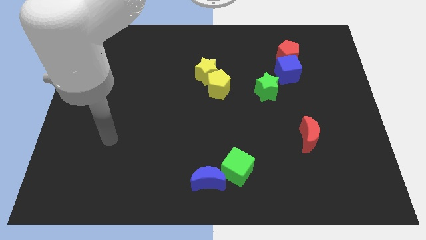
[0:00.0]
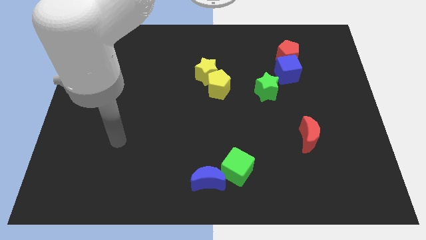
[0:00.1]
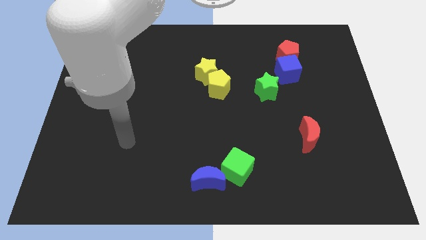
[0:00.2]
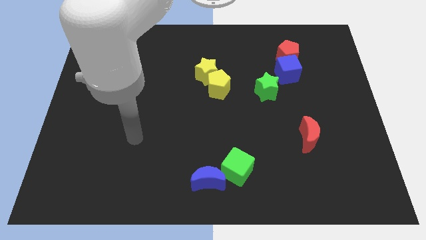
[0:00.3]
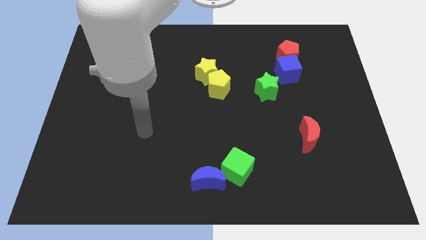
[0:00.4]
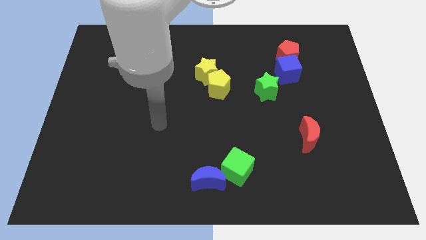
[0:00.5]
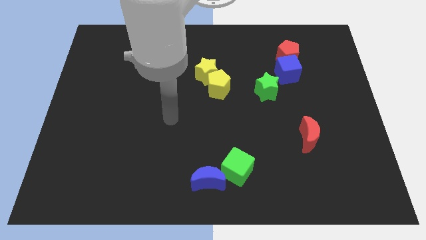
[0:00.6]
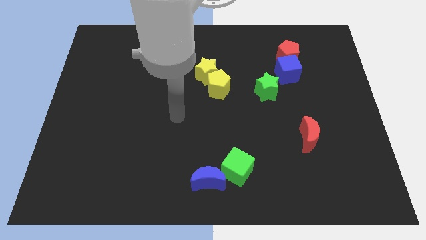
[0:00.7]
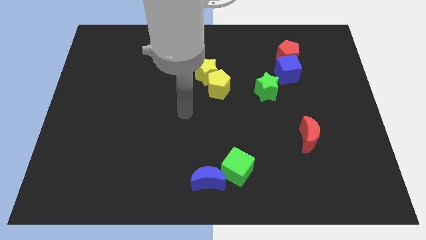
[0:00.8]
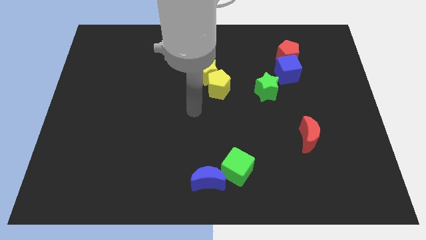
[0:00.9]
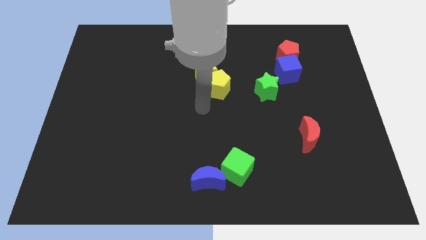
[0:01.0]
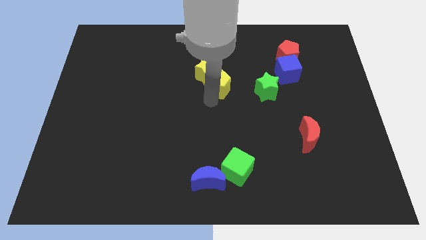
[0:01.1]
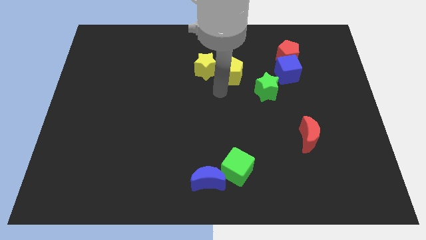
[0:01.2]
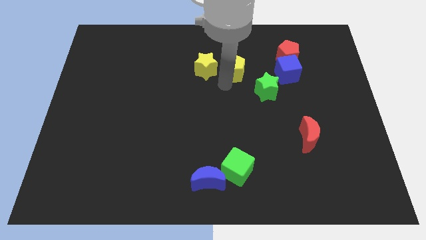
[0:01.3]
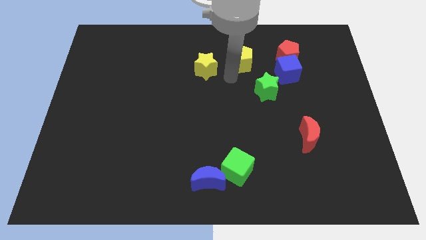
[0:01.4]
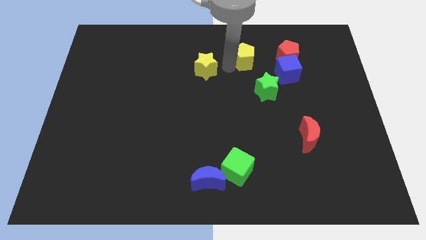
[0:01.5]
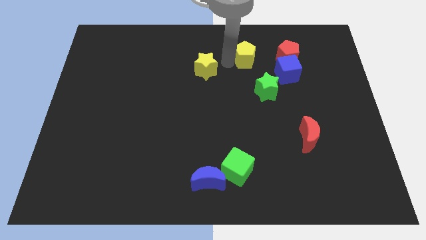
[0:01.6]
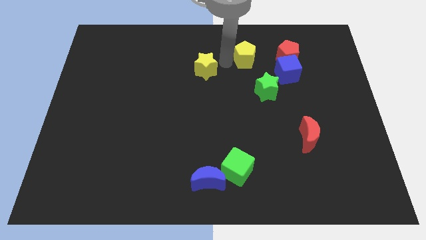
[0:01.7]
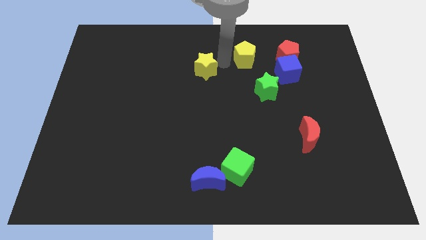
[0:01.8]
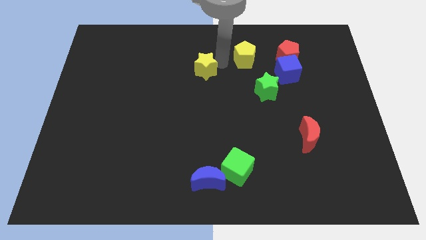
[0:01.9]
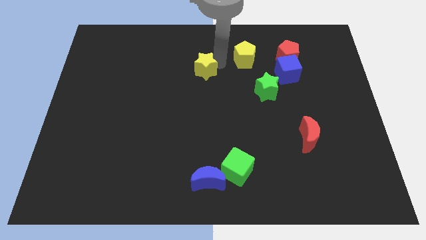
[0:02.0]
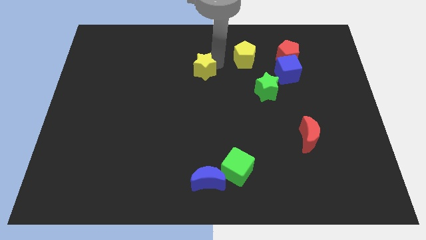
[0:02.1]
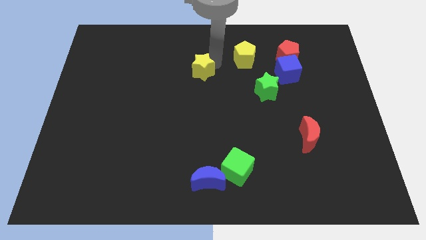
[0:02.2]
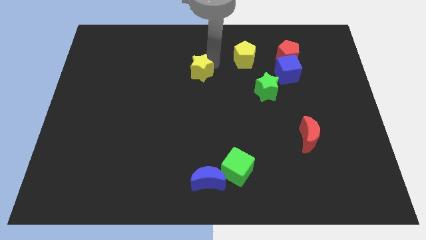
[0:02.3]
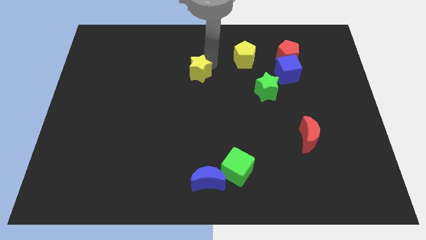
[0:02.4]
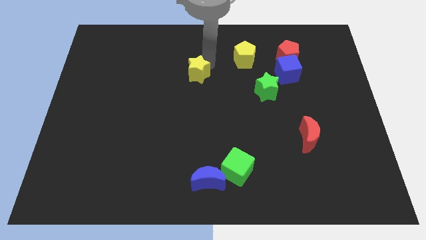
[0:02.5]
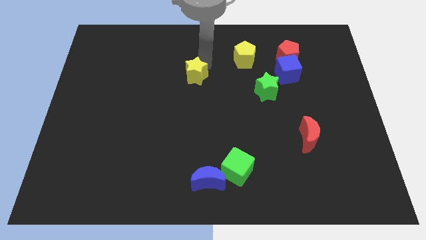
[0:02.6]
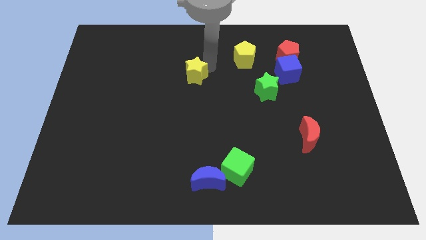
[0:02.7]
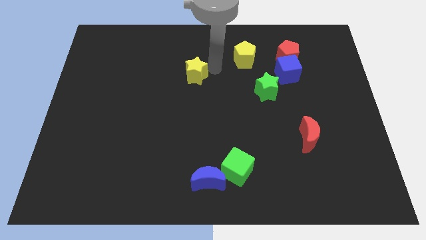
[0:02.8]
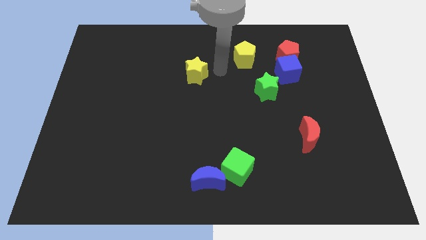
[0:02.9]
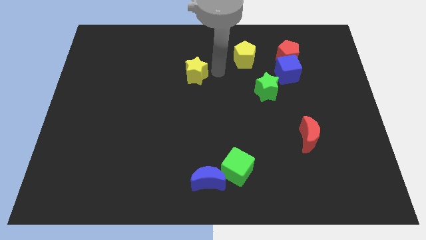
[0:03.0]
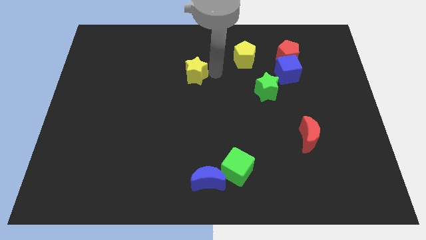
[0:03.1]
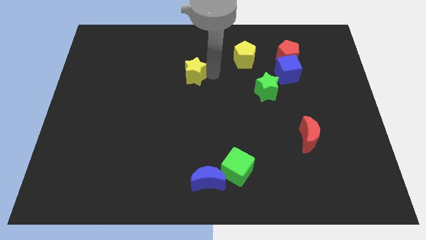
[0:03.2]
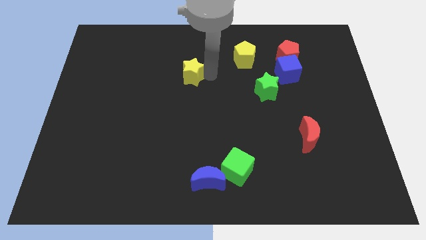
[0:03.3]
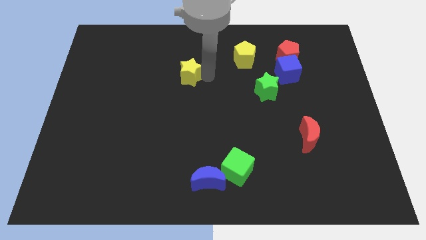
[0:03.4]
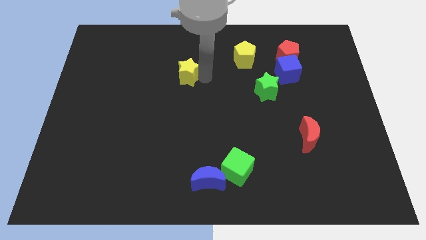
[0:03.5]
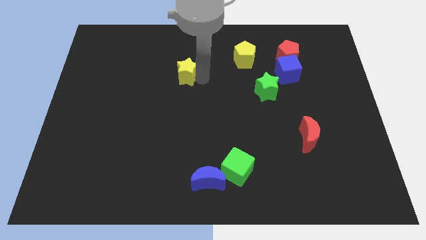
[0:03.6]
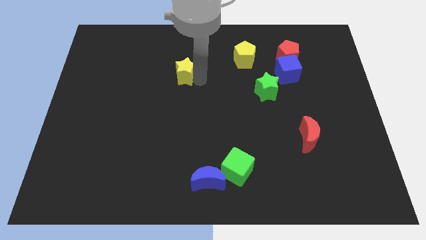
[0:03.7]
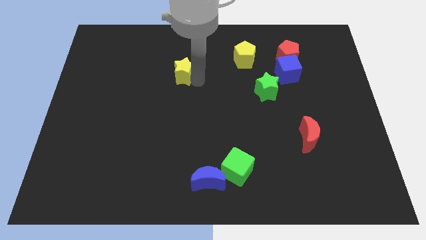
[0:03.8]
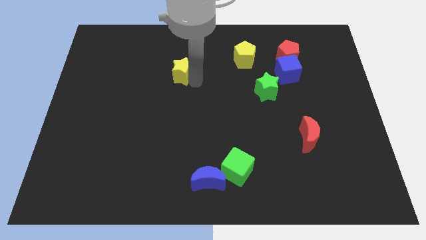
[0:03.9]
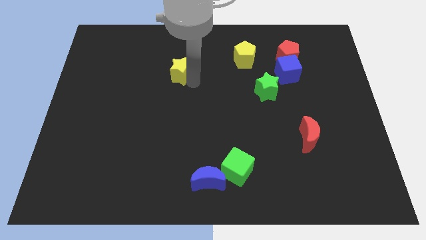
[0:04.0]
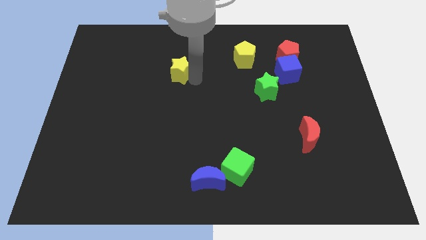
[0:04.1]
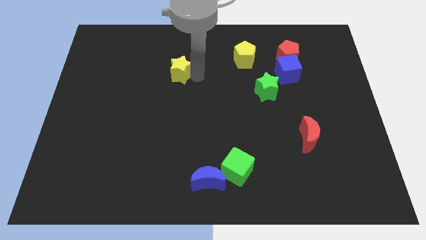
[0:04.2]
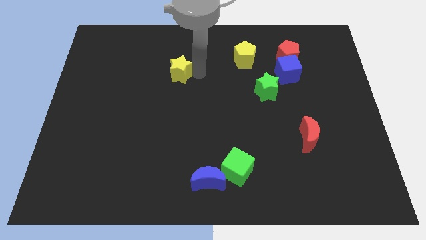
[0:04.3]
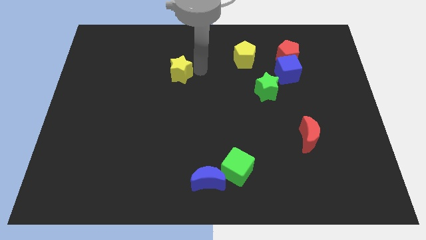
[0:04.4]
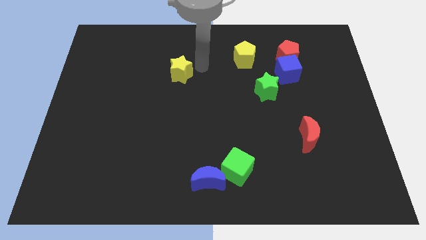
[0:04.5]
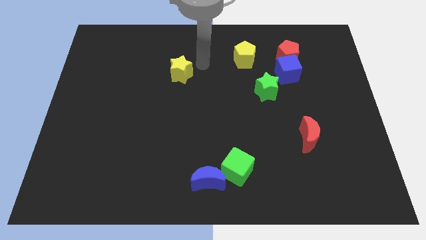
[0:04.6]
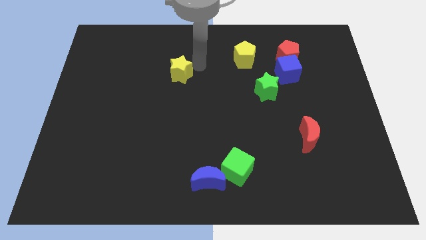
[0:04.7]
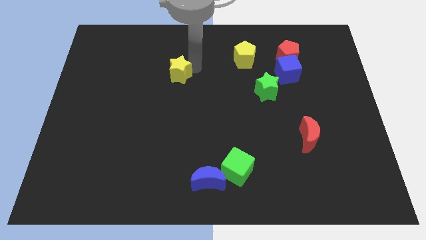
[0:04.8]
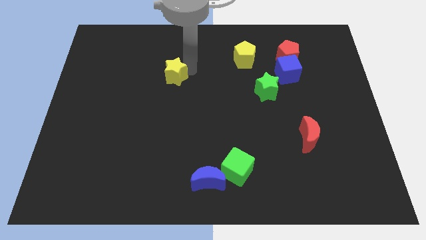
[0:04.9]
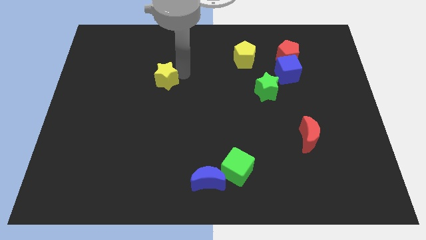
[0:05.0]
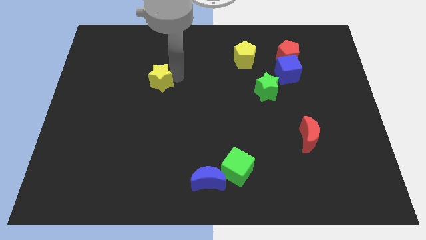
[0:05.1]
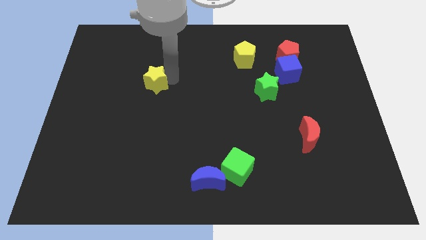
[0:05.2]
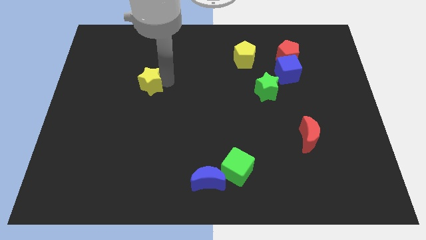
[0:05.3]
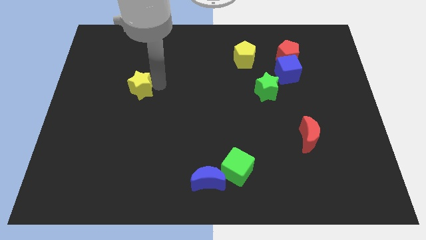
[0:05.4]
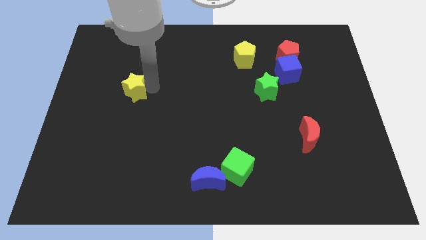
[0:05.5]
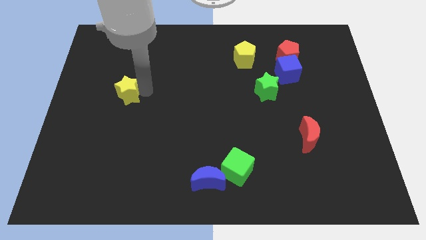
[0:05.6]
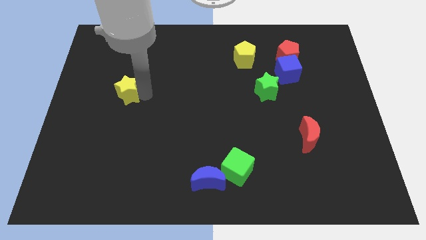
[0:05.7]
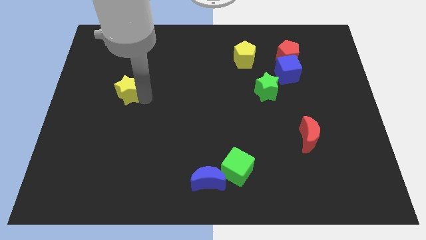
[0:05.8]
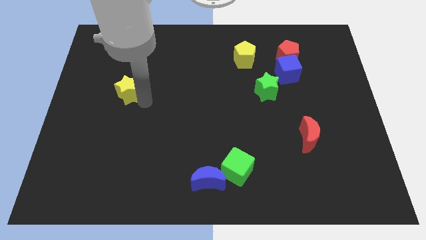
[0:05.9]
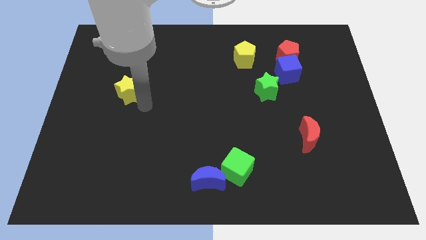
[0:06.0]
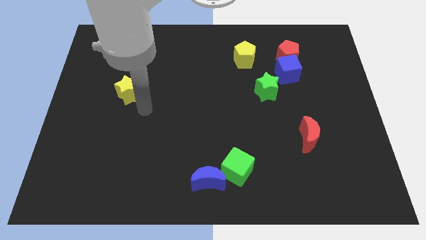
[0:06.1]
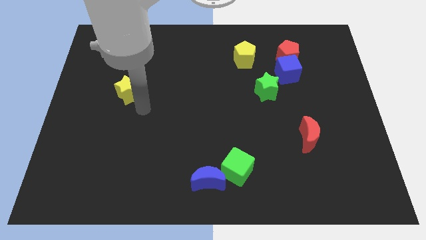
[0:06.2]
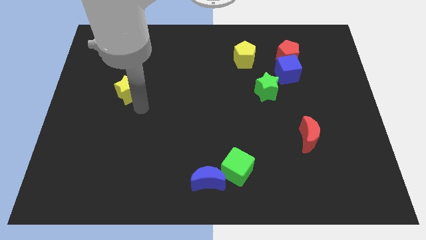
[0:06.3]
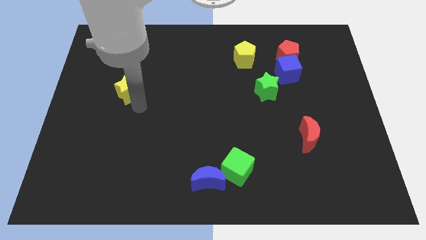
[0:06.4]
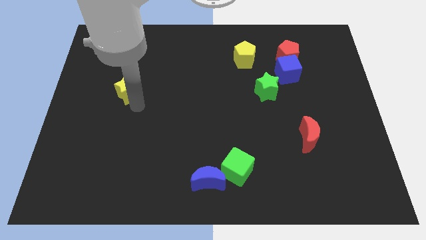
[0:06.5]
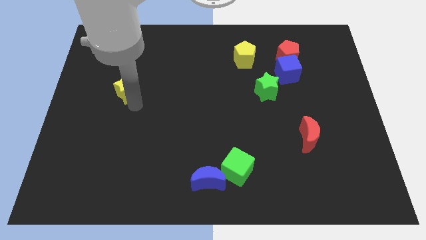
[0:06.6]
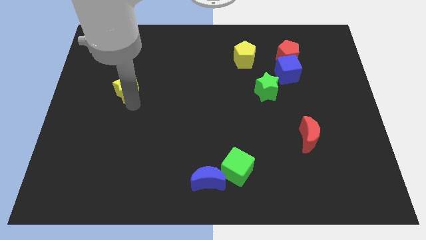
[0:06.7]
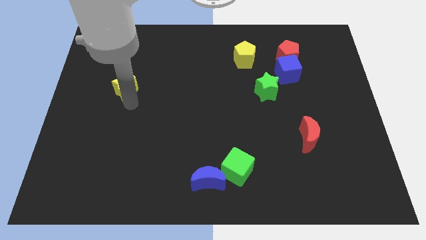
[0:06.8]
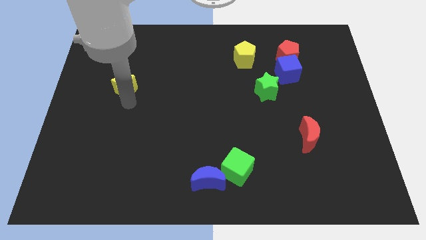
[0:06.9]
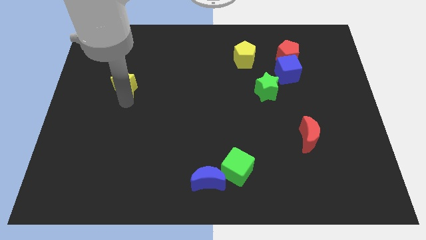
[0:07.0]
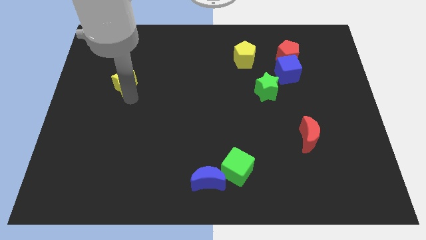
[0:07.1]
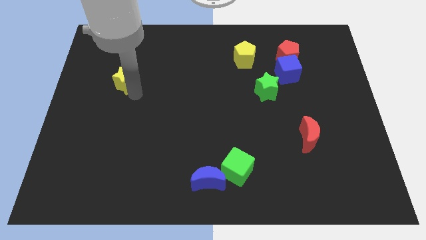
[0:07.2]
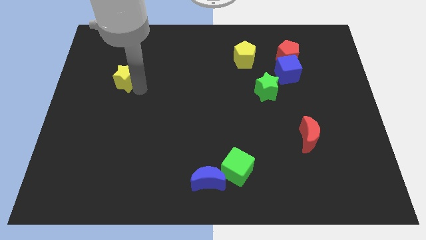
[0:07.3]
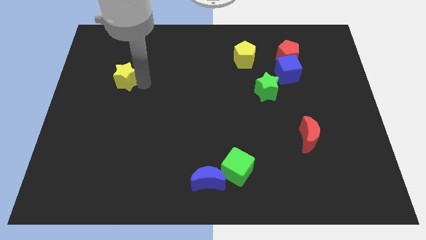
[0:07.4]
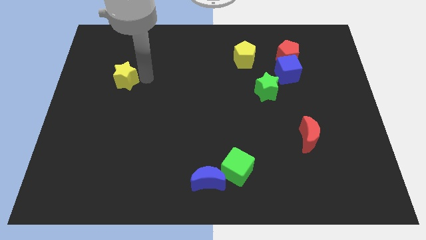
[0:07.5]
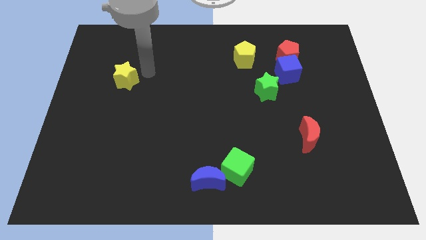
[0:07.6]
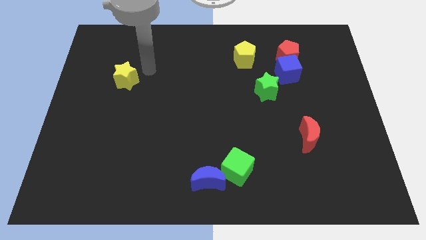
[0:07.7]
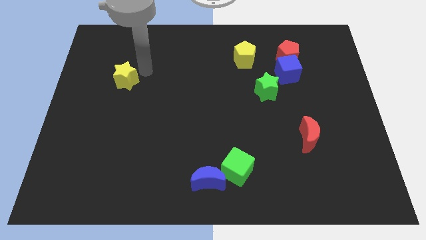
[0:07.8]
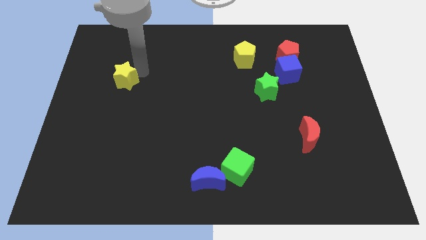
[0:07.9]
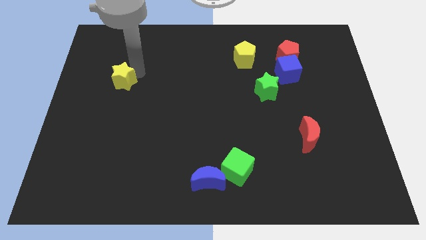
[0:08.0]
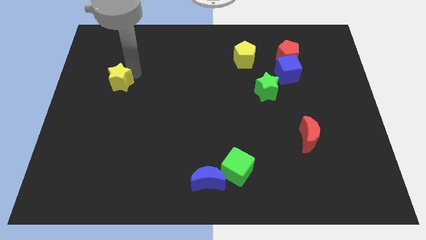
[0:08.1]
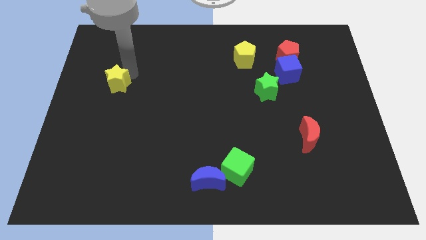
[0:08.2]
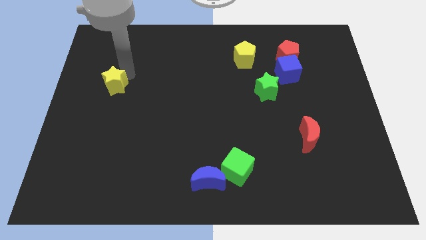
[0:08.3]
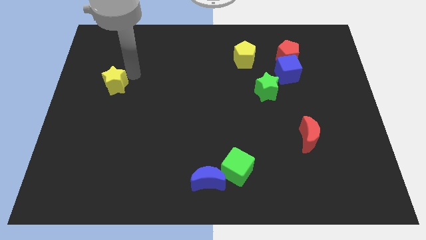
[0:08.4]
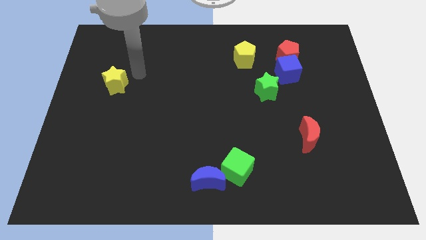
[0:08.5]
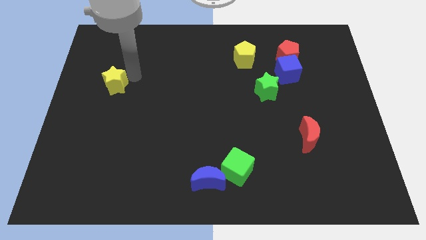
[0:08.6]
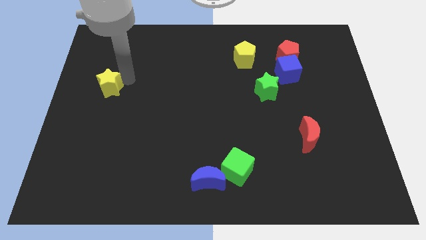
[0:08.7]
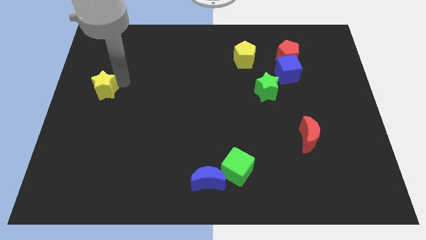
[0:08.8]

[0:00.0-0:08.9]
move the yellow star to the left side
